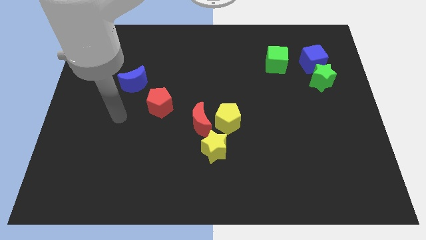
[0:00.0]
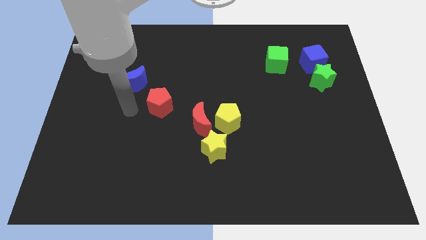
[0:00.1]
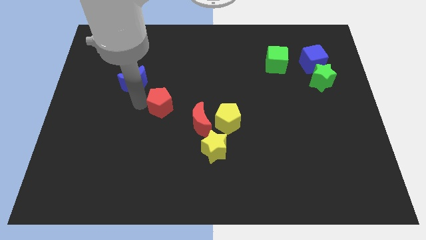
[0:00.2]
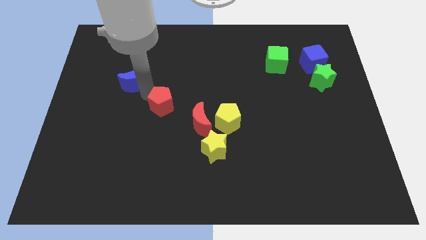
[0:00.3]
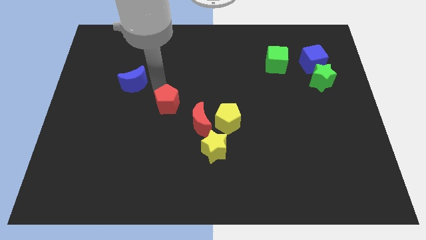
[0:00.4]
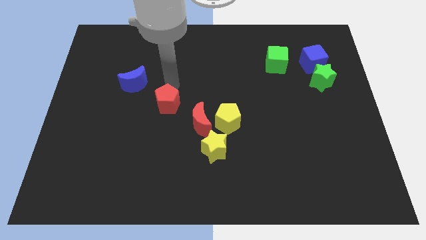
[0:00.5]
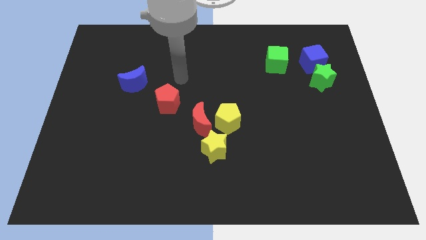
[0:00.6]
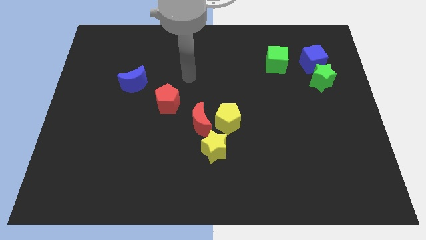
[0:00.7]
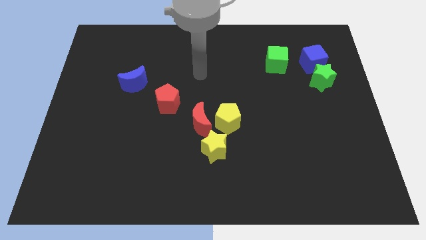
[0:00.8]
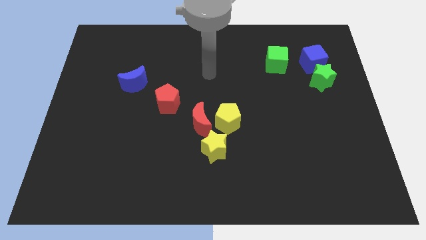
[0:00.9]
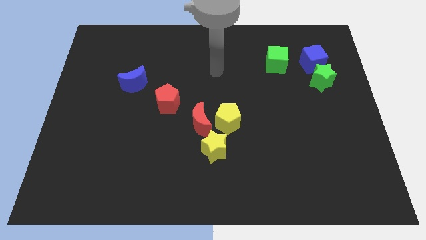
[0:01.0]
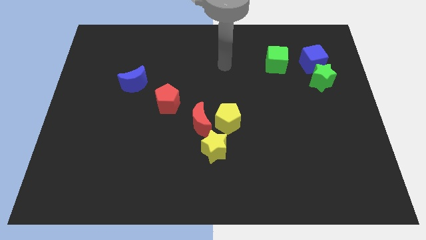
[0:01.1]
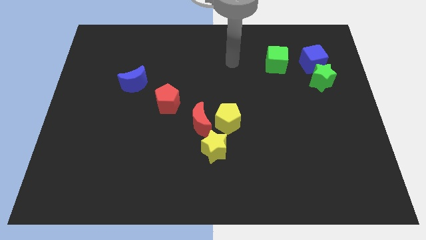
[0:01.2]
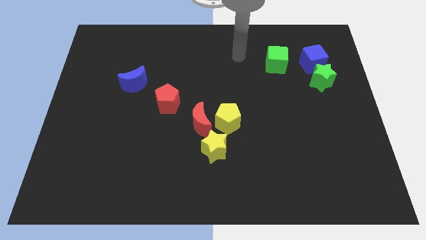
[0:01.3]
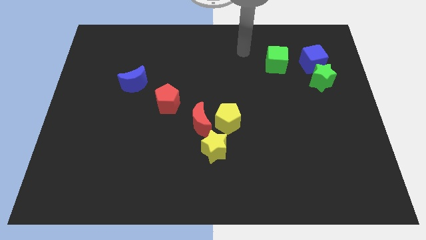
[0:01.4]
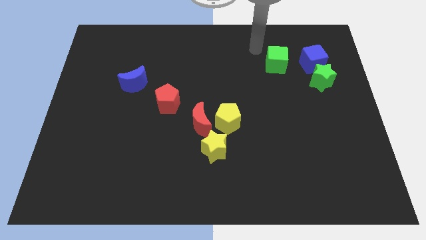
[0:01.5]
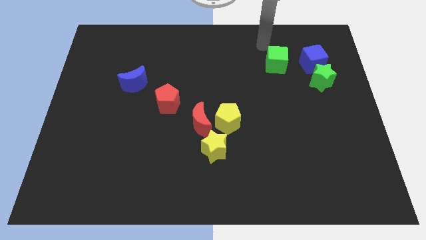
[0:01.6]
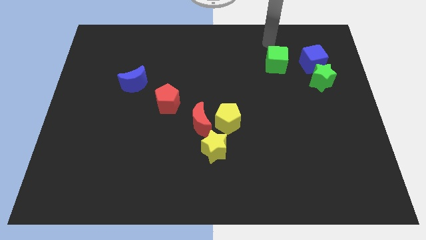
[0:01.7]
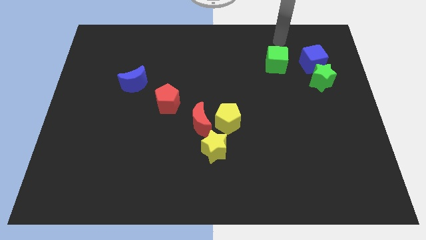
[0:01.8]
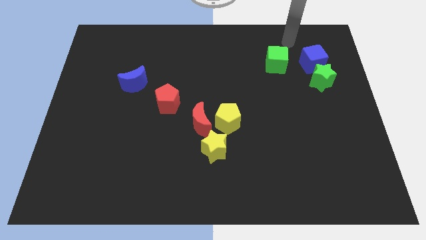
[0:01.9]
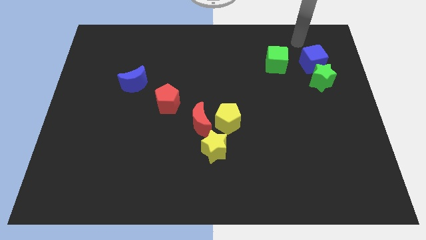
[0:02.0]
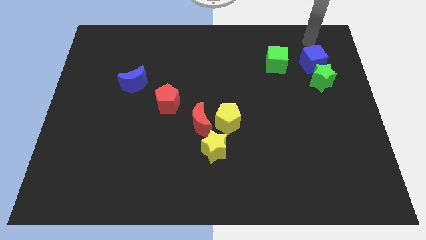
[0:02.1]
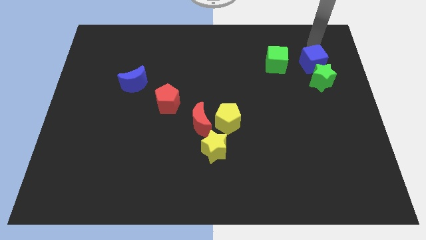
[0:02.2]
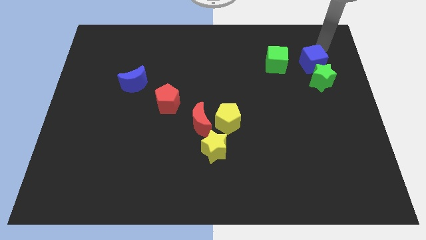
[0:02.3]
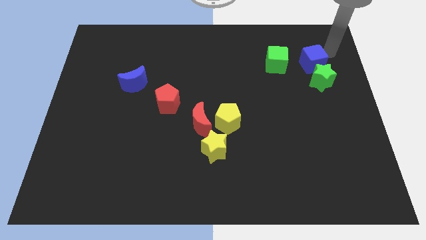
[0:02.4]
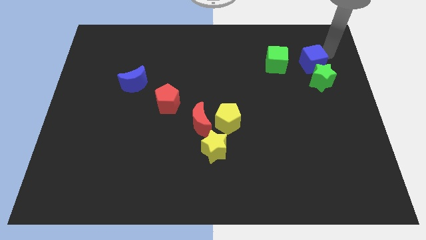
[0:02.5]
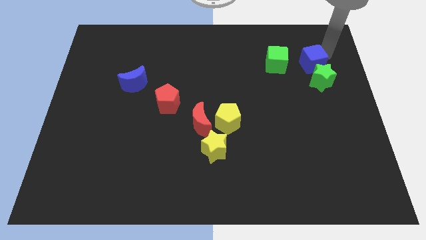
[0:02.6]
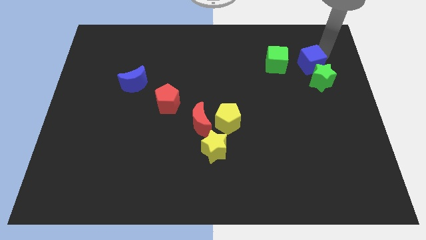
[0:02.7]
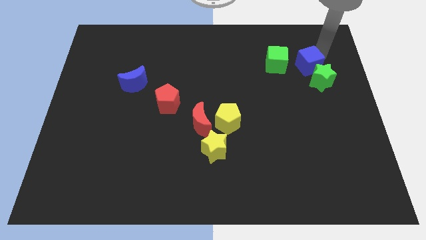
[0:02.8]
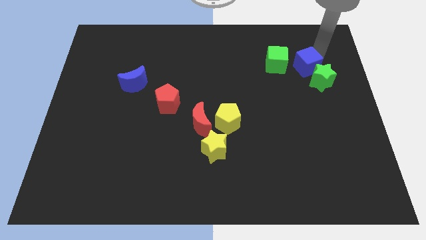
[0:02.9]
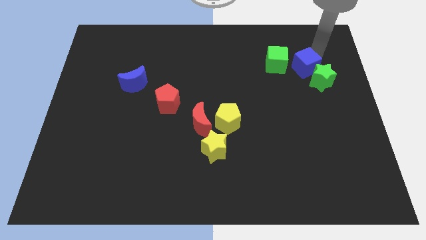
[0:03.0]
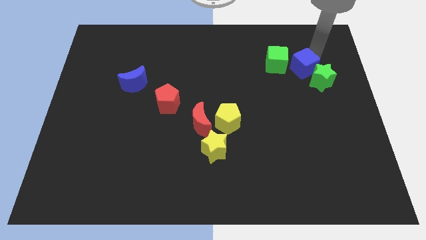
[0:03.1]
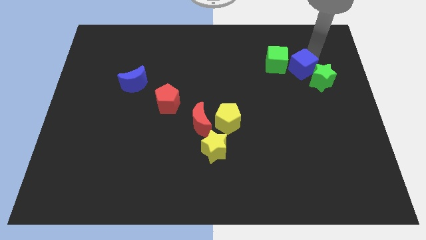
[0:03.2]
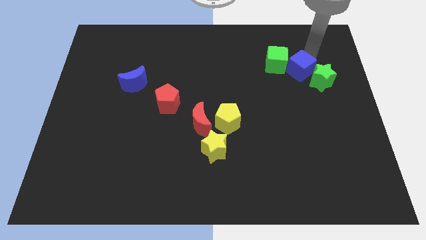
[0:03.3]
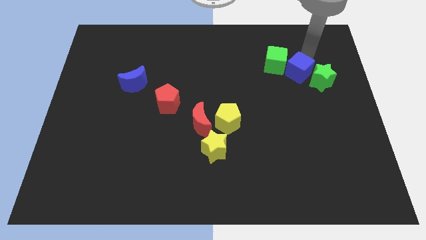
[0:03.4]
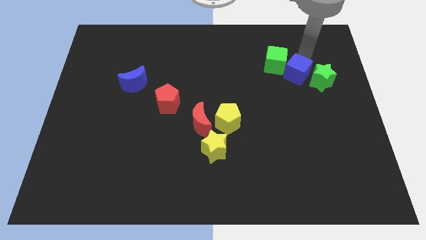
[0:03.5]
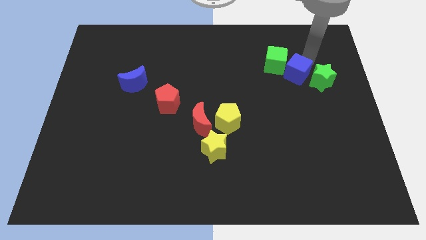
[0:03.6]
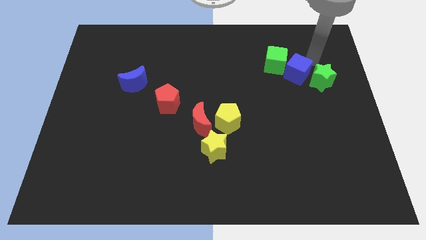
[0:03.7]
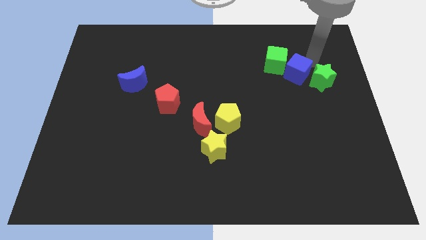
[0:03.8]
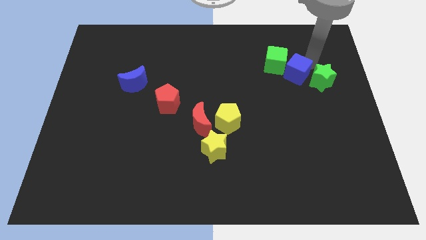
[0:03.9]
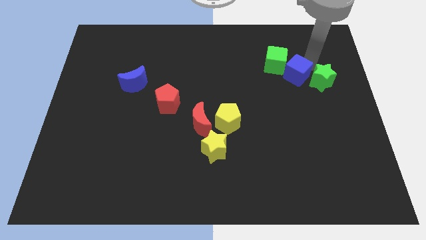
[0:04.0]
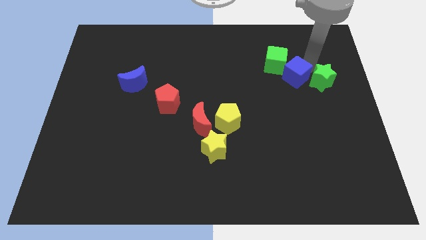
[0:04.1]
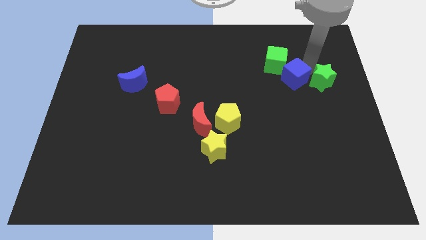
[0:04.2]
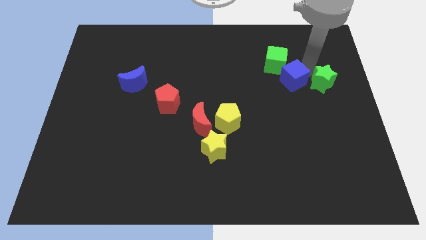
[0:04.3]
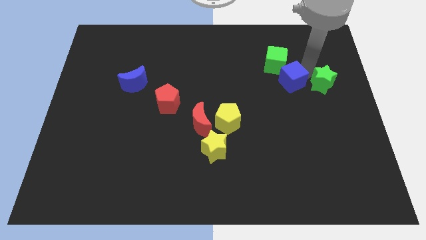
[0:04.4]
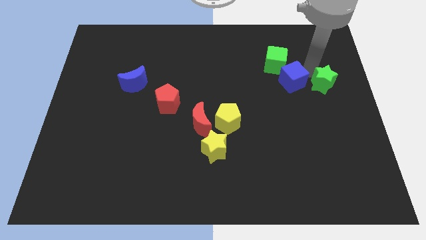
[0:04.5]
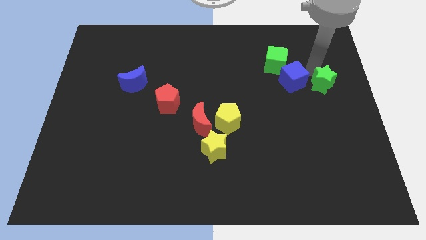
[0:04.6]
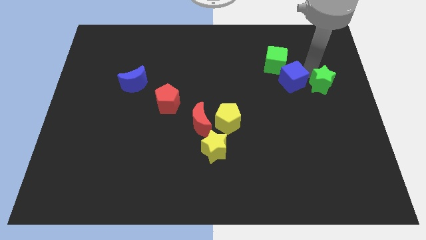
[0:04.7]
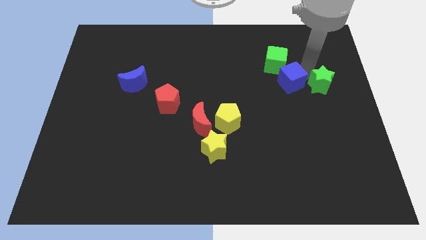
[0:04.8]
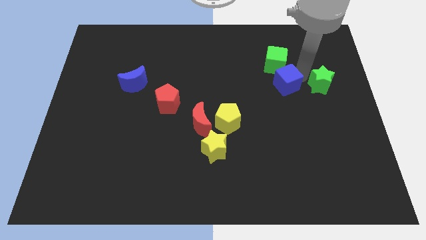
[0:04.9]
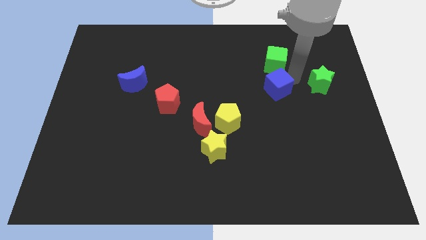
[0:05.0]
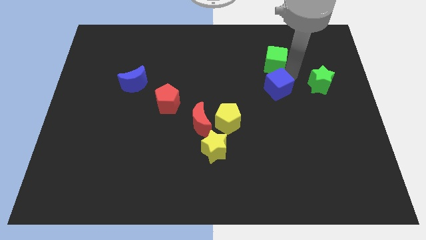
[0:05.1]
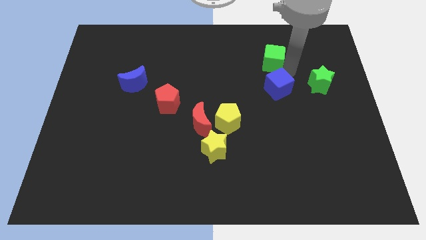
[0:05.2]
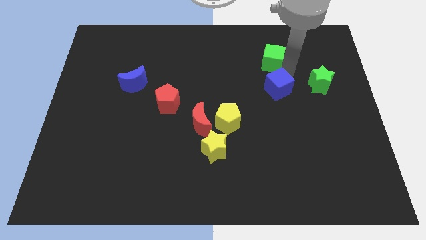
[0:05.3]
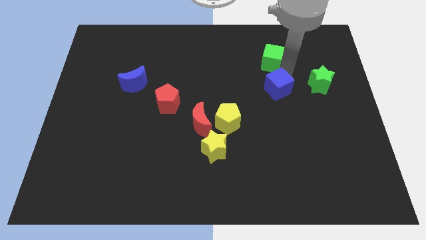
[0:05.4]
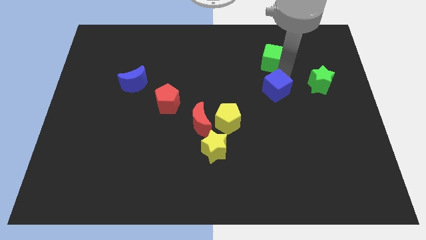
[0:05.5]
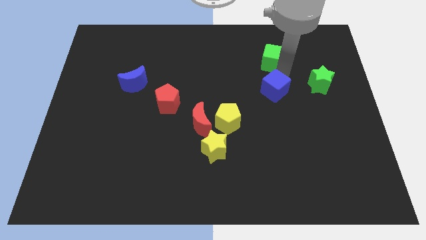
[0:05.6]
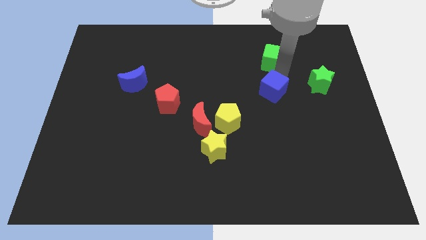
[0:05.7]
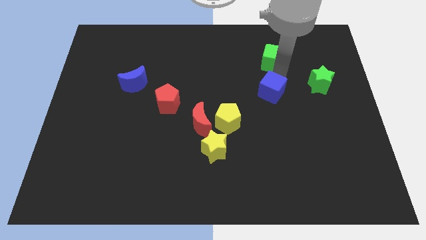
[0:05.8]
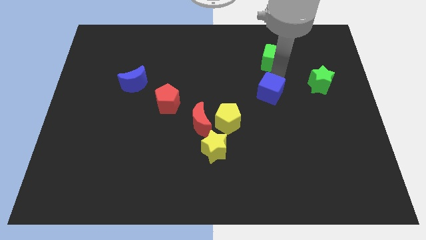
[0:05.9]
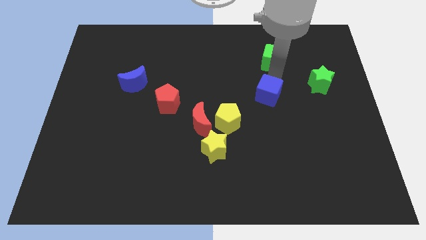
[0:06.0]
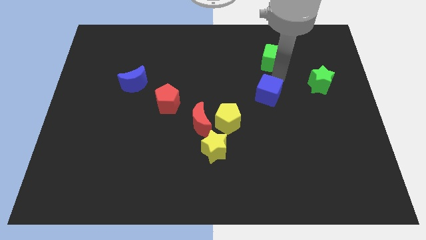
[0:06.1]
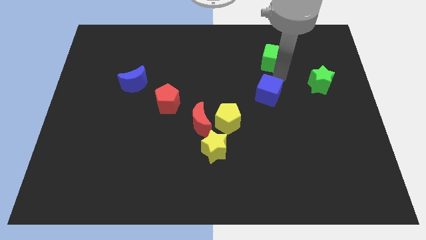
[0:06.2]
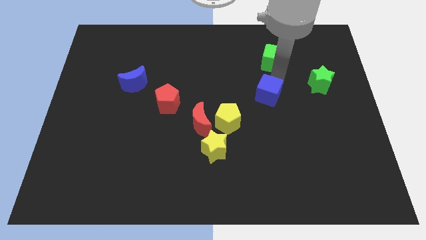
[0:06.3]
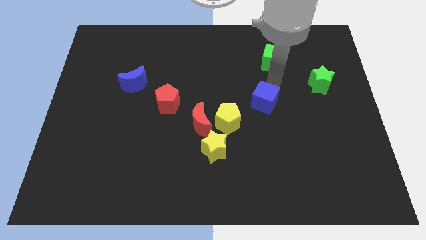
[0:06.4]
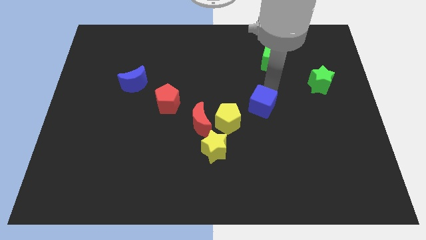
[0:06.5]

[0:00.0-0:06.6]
move the blue cube downwards and left

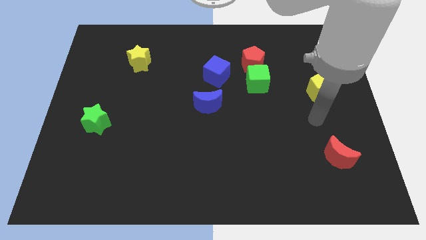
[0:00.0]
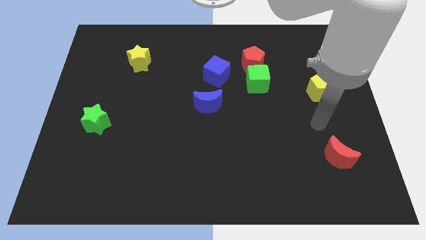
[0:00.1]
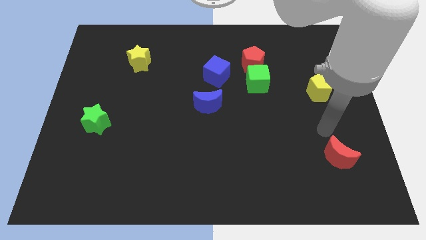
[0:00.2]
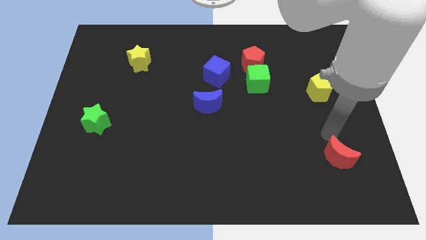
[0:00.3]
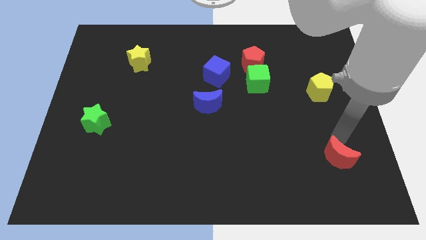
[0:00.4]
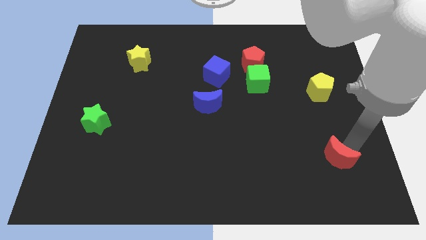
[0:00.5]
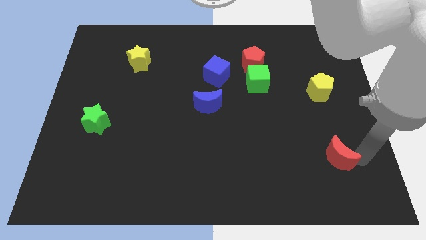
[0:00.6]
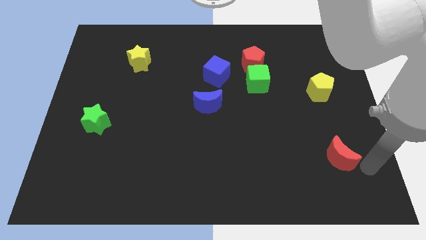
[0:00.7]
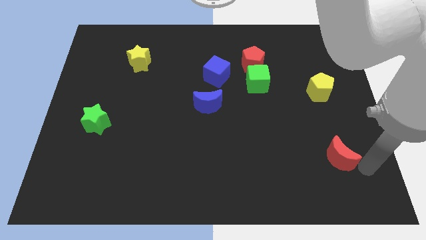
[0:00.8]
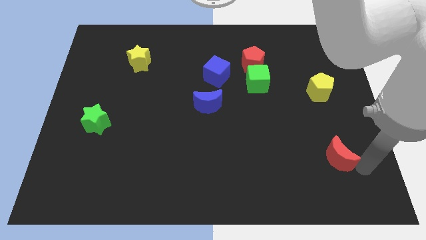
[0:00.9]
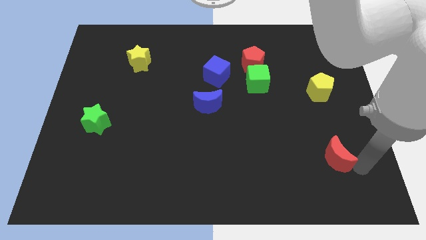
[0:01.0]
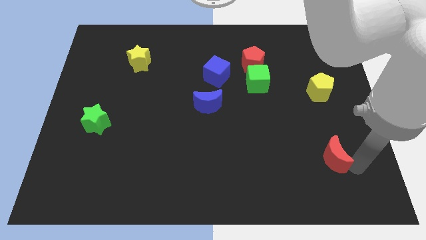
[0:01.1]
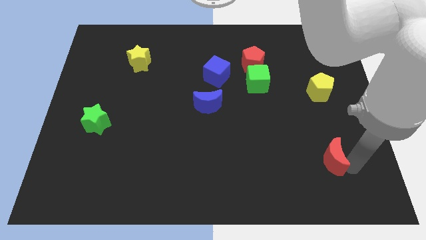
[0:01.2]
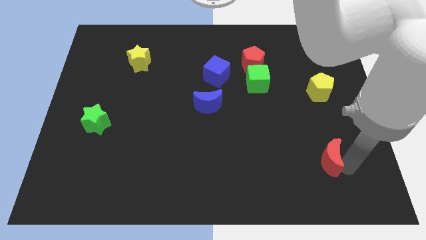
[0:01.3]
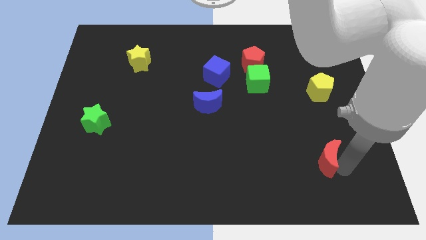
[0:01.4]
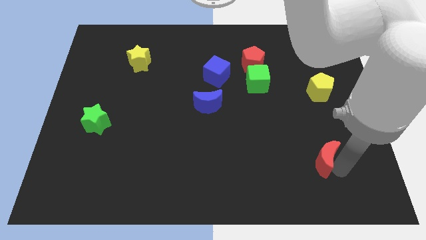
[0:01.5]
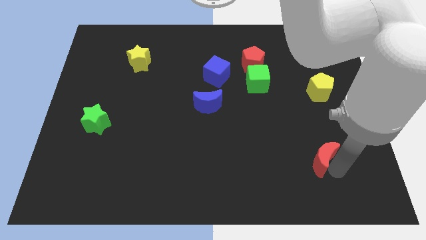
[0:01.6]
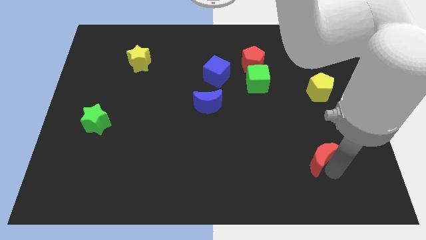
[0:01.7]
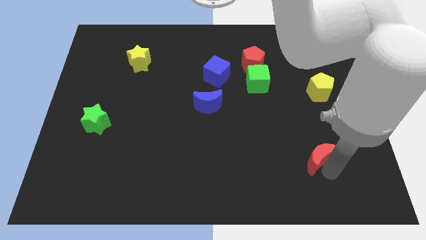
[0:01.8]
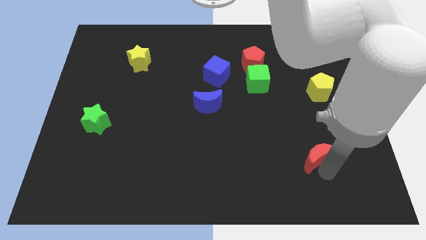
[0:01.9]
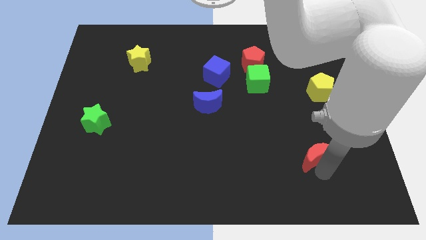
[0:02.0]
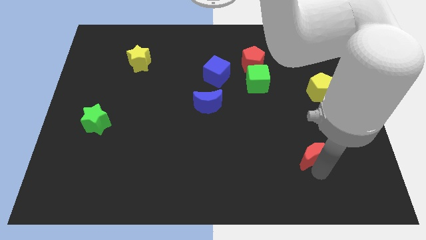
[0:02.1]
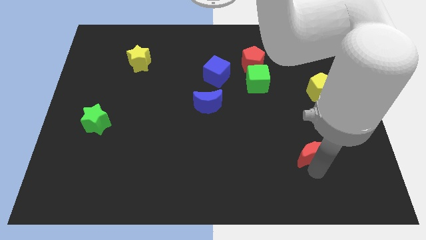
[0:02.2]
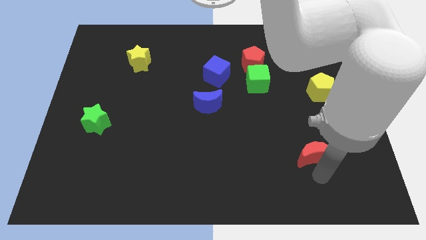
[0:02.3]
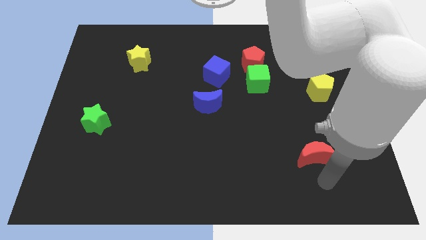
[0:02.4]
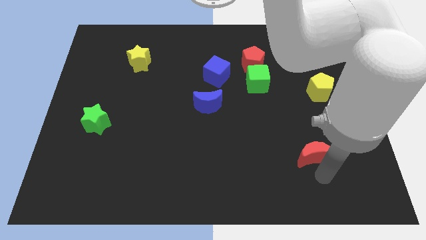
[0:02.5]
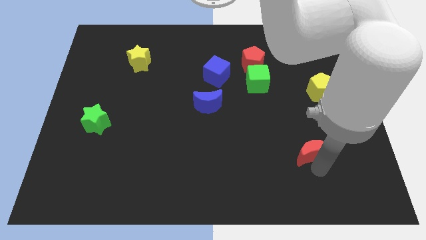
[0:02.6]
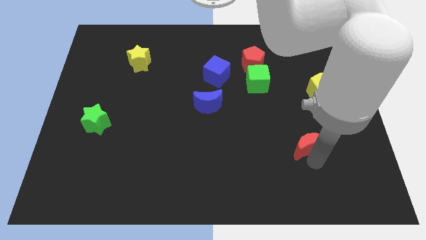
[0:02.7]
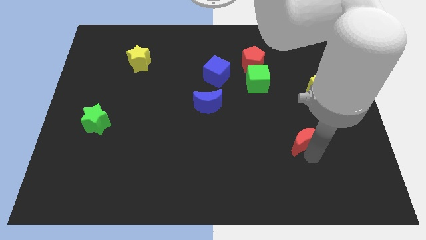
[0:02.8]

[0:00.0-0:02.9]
slightly move the red moon up and to the left
